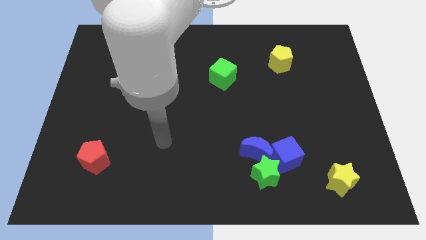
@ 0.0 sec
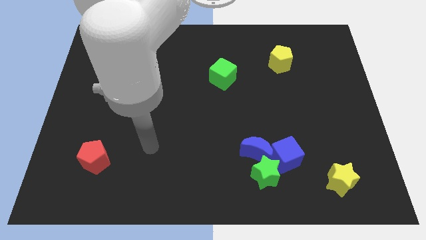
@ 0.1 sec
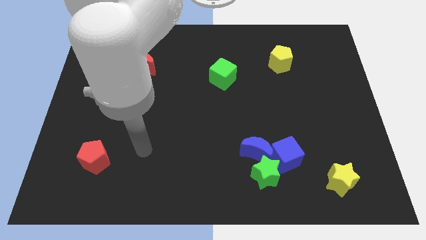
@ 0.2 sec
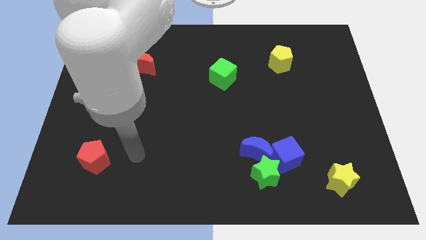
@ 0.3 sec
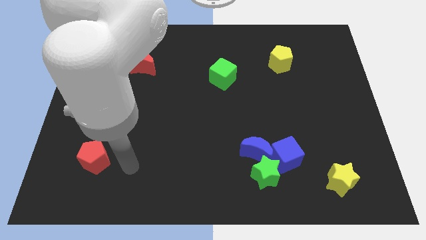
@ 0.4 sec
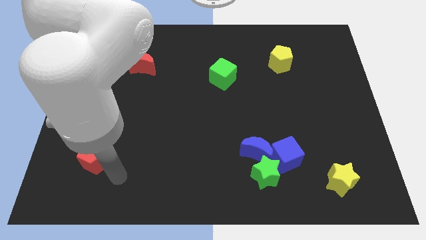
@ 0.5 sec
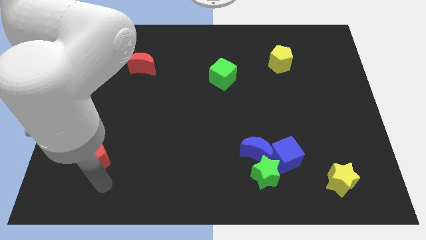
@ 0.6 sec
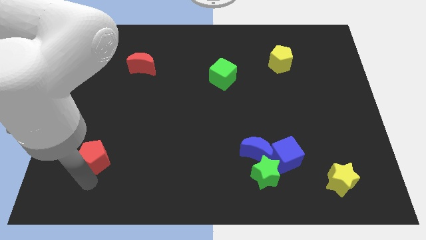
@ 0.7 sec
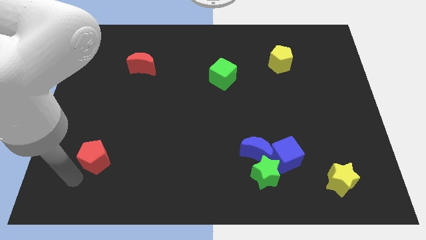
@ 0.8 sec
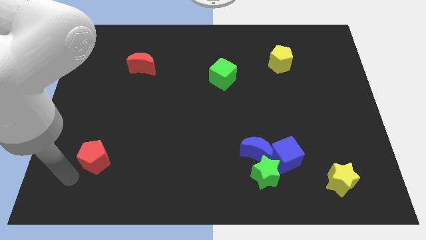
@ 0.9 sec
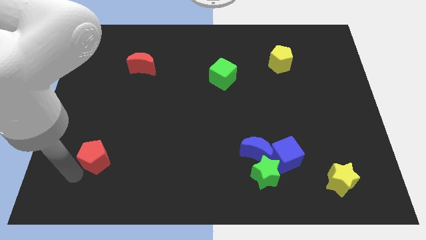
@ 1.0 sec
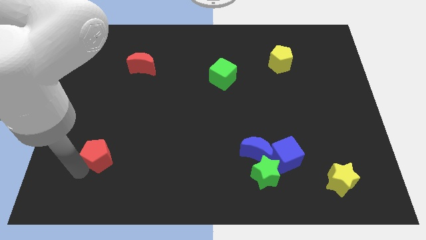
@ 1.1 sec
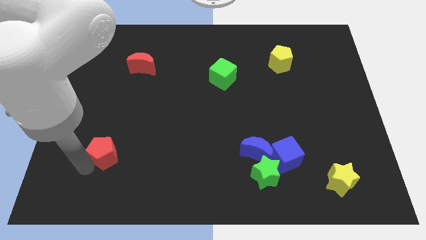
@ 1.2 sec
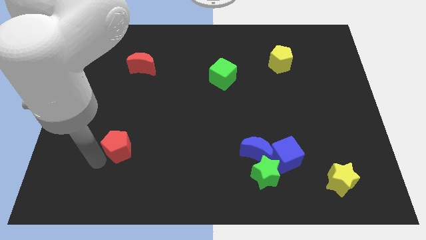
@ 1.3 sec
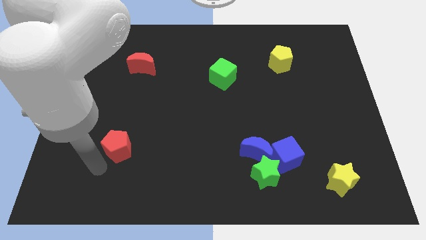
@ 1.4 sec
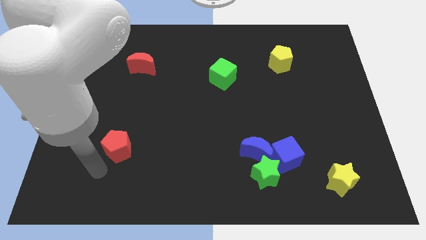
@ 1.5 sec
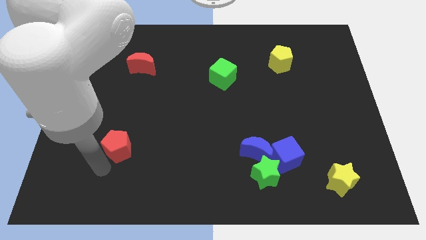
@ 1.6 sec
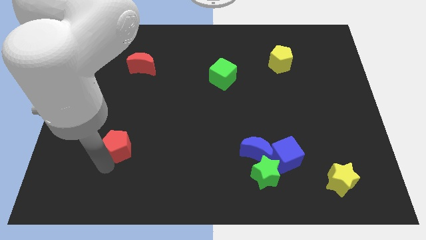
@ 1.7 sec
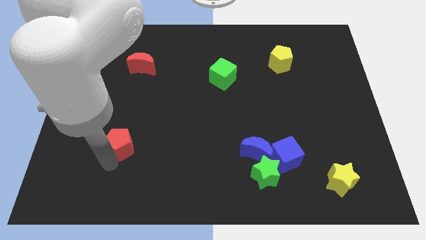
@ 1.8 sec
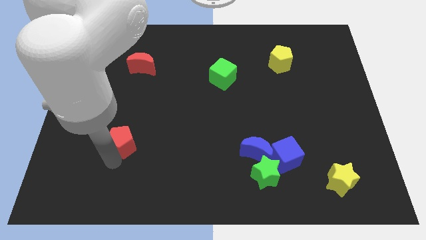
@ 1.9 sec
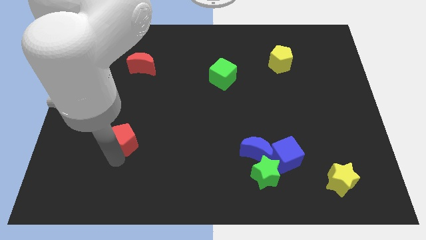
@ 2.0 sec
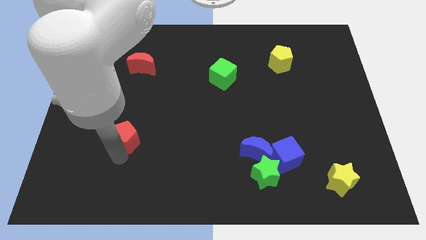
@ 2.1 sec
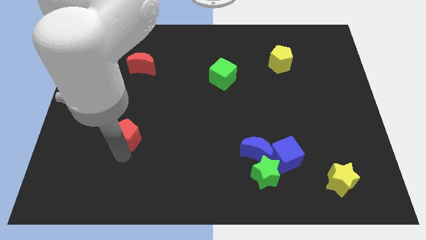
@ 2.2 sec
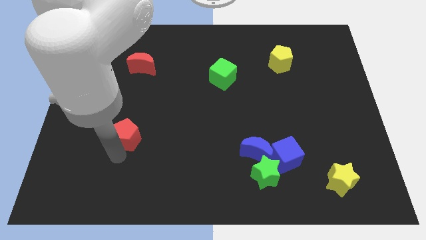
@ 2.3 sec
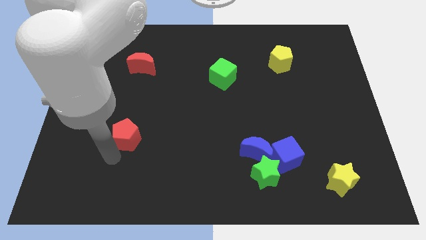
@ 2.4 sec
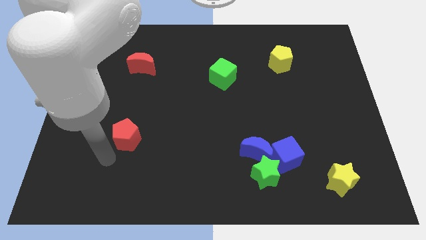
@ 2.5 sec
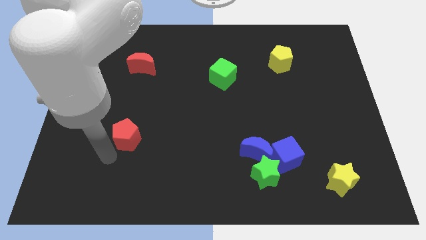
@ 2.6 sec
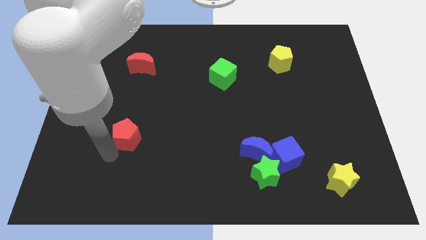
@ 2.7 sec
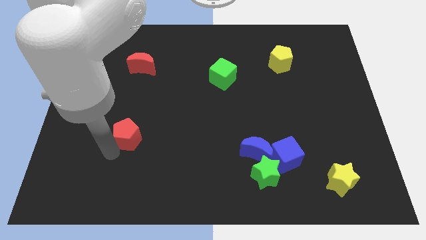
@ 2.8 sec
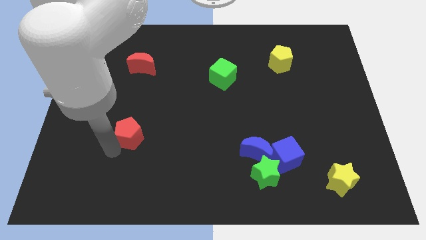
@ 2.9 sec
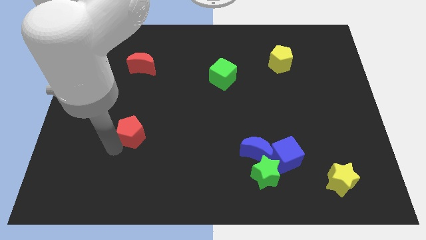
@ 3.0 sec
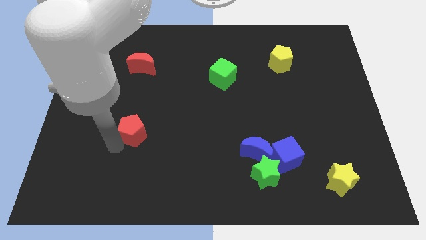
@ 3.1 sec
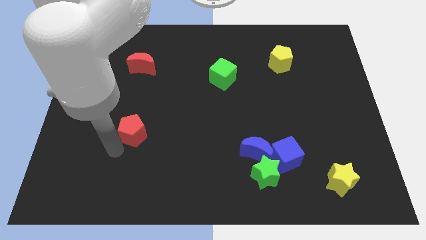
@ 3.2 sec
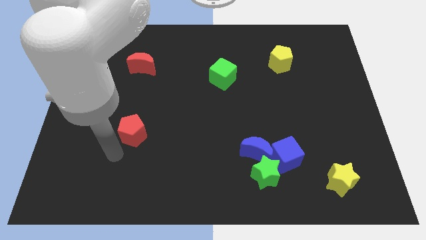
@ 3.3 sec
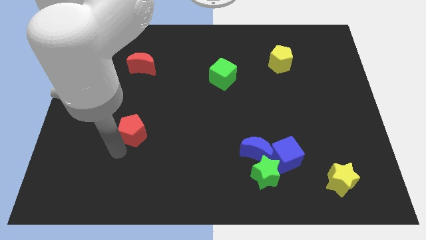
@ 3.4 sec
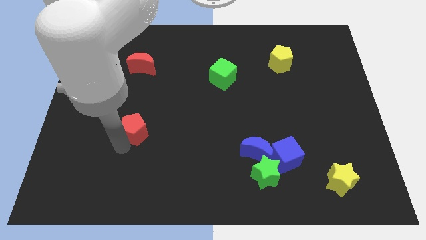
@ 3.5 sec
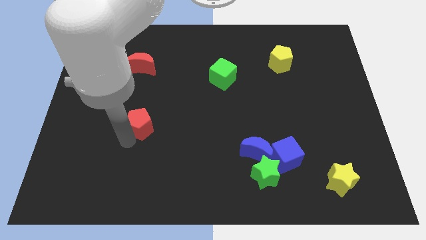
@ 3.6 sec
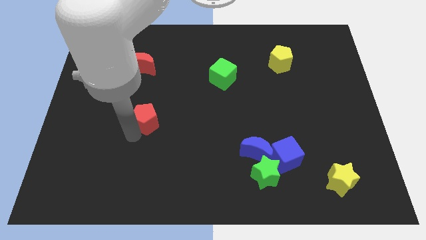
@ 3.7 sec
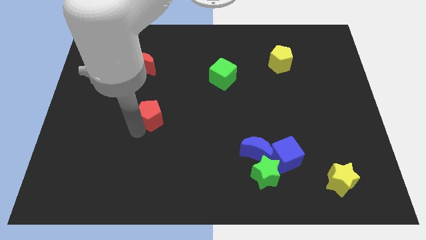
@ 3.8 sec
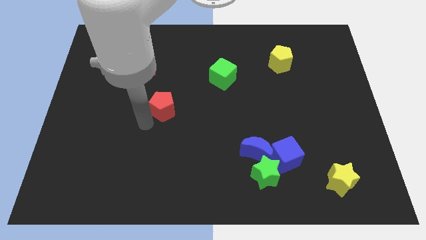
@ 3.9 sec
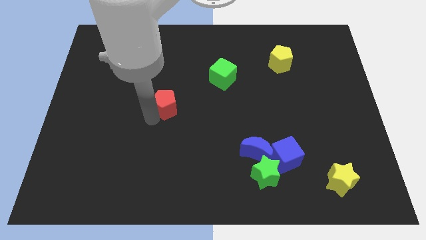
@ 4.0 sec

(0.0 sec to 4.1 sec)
slide the red pentagon up and right diagonally

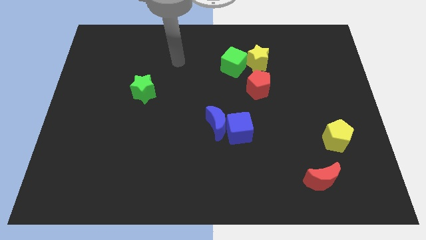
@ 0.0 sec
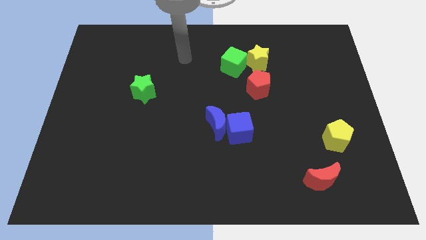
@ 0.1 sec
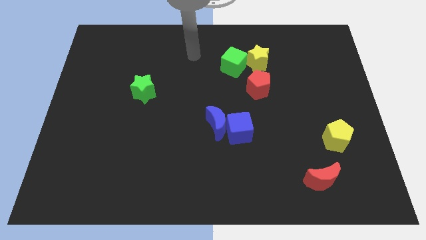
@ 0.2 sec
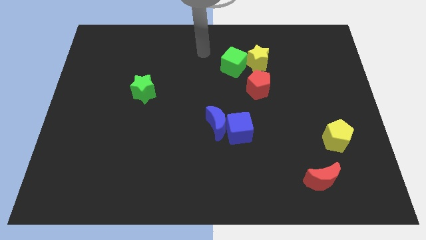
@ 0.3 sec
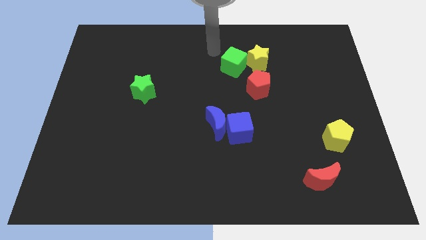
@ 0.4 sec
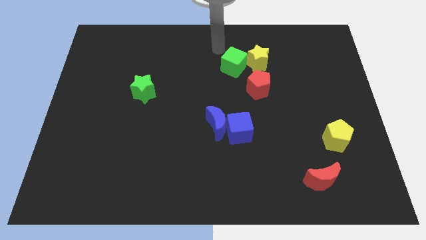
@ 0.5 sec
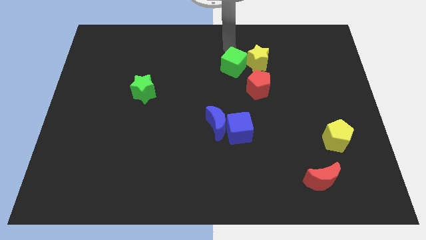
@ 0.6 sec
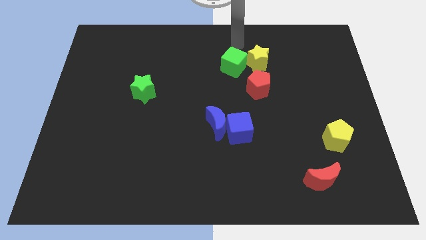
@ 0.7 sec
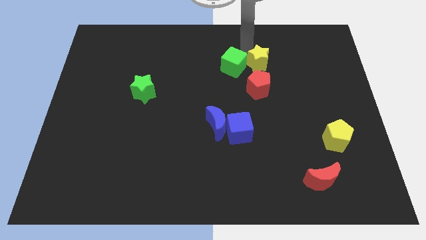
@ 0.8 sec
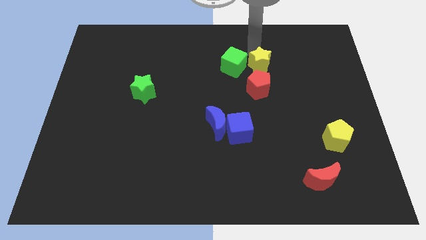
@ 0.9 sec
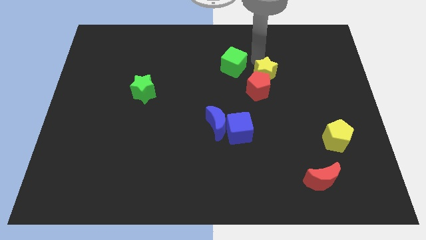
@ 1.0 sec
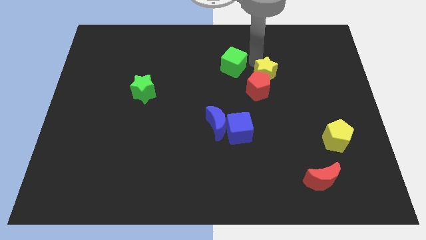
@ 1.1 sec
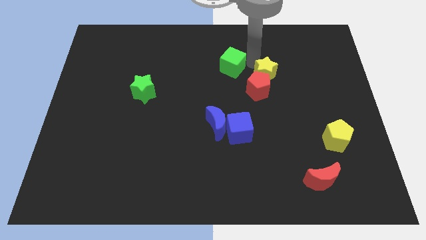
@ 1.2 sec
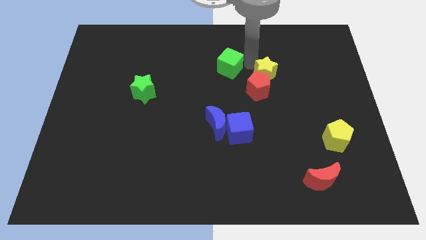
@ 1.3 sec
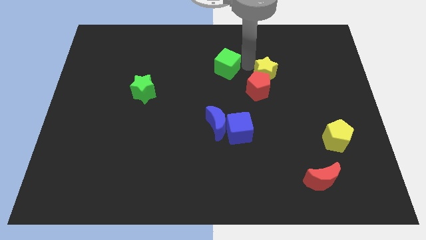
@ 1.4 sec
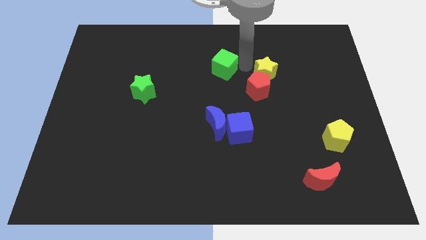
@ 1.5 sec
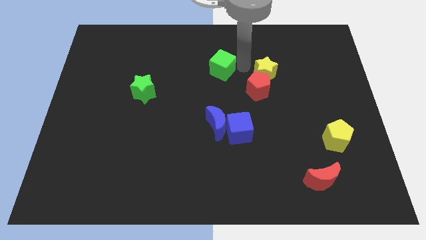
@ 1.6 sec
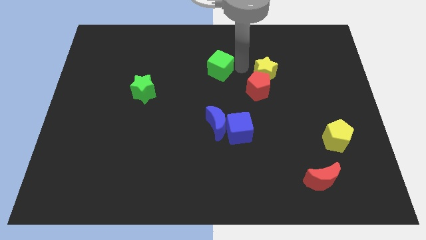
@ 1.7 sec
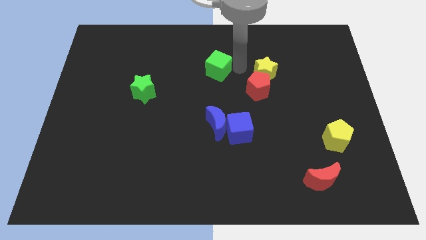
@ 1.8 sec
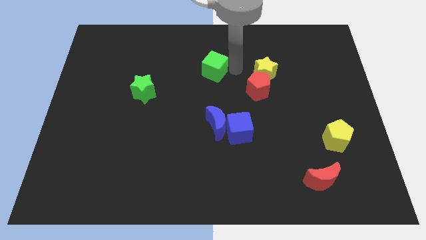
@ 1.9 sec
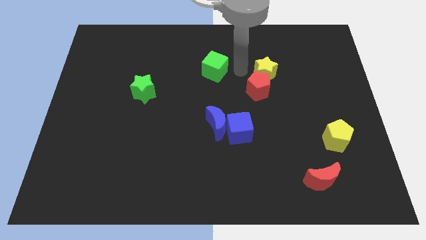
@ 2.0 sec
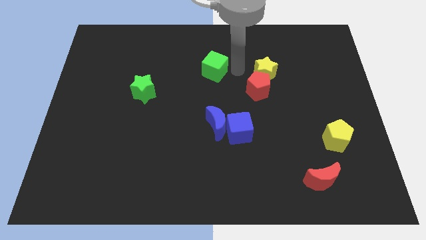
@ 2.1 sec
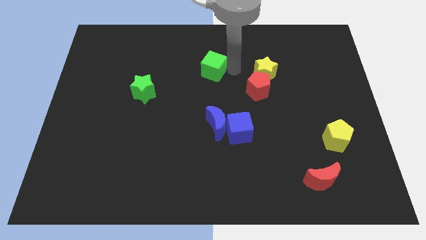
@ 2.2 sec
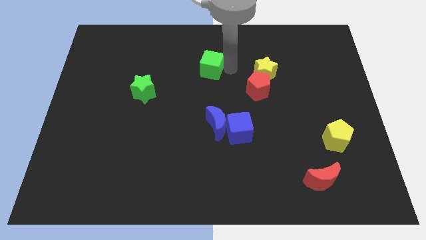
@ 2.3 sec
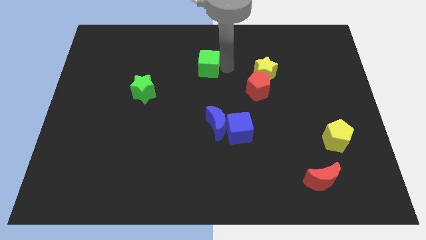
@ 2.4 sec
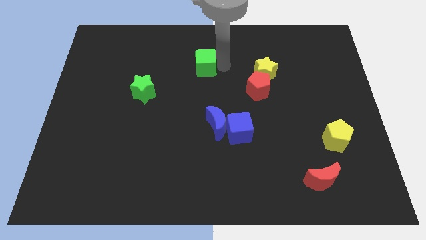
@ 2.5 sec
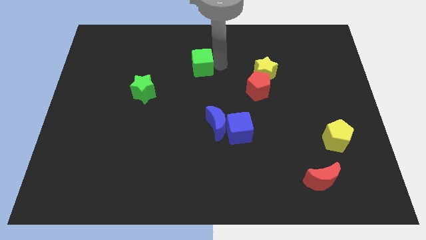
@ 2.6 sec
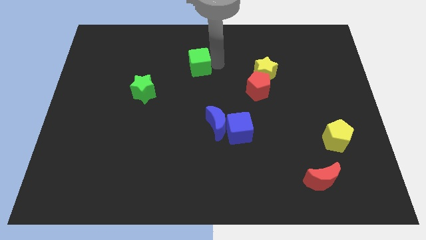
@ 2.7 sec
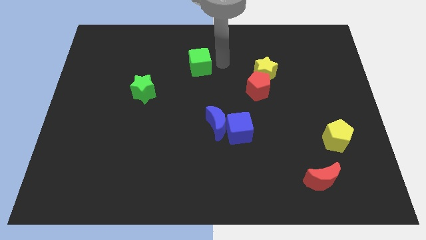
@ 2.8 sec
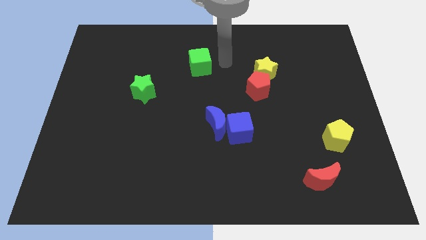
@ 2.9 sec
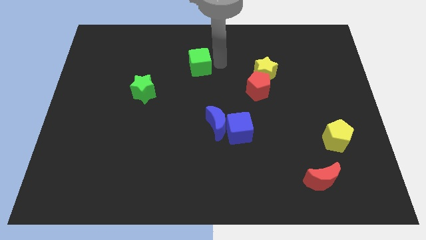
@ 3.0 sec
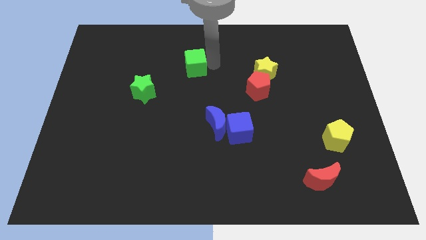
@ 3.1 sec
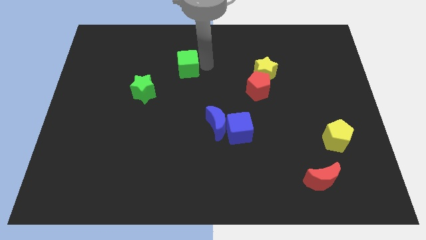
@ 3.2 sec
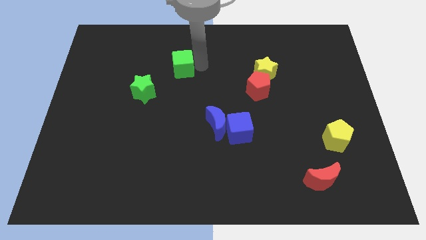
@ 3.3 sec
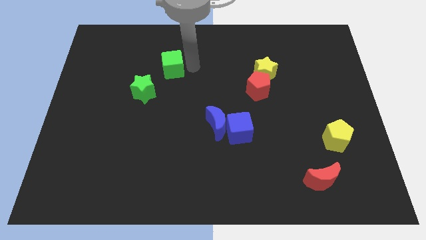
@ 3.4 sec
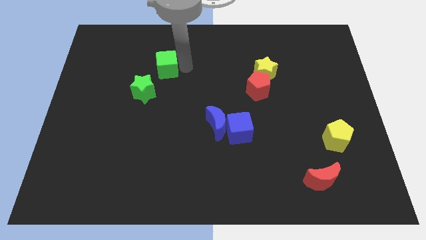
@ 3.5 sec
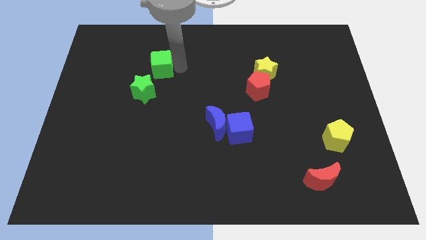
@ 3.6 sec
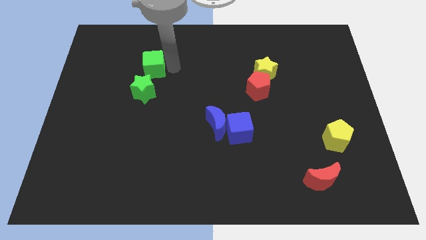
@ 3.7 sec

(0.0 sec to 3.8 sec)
move the green cube to the left
